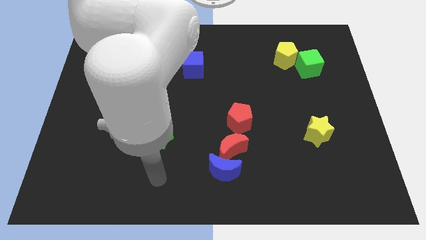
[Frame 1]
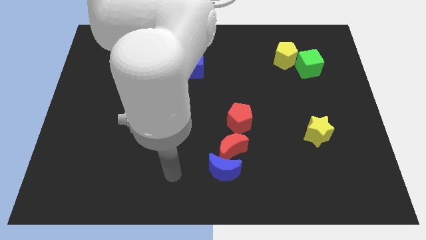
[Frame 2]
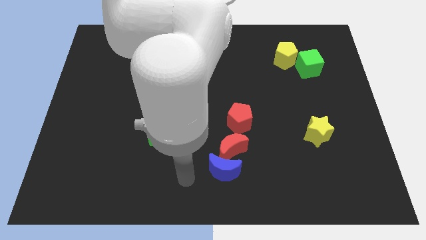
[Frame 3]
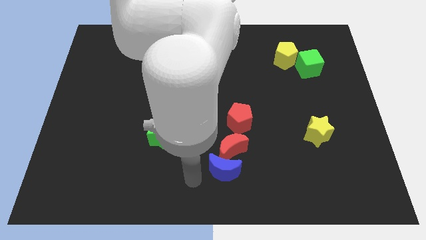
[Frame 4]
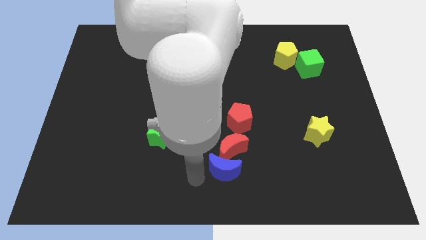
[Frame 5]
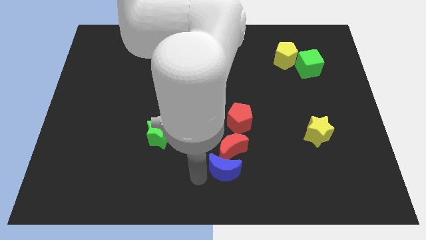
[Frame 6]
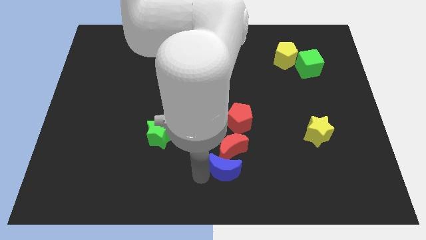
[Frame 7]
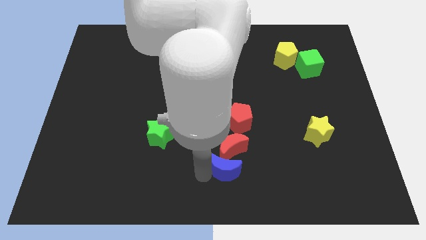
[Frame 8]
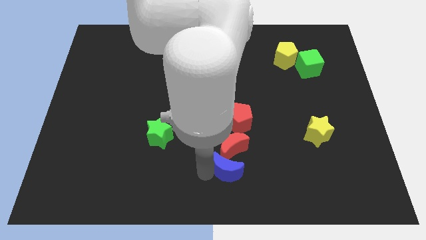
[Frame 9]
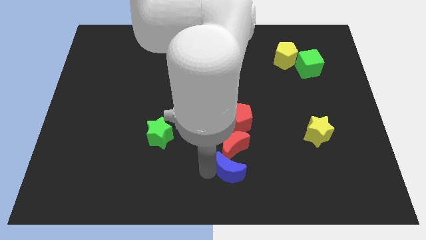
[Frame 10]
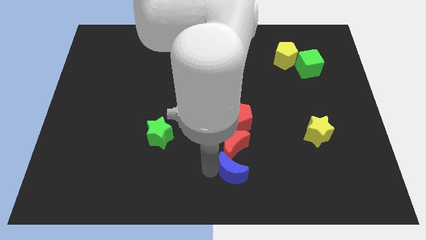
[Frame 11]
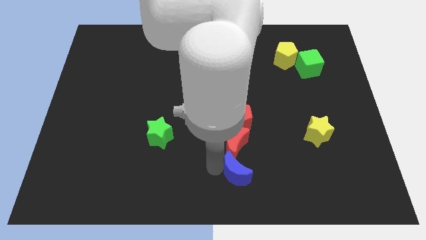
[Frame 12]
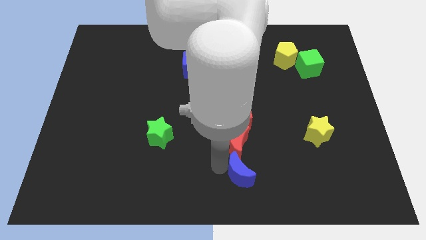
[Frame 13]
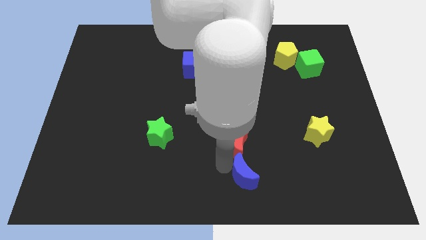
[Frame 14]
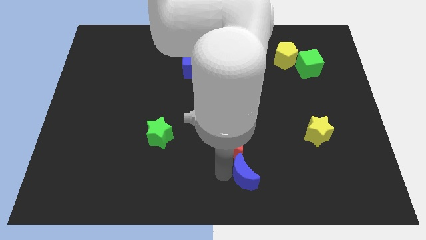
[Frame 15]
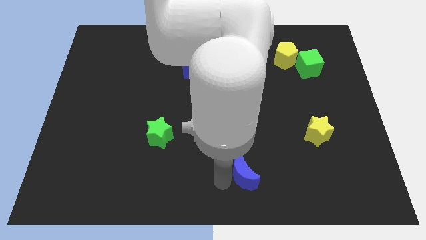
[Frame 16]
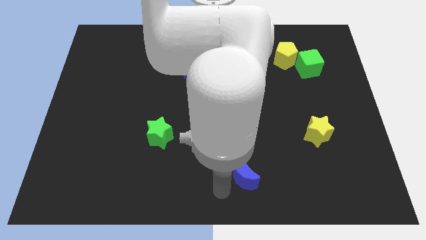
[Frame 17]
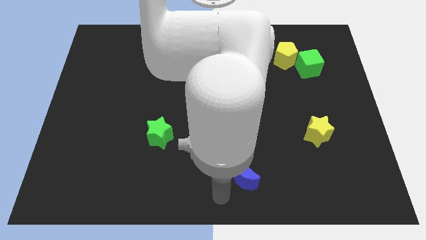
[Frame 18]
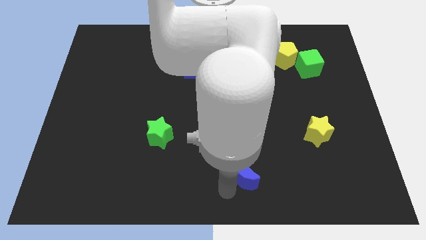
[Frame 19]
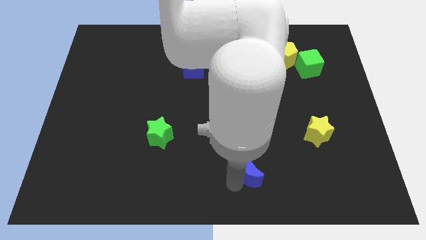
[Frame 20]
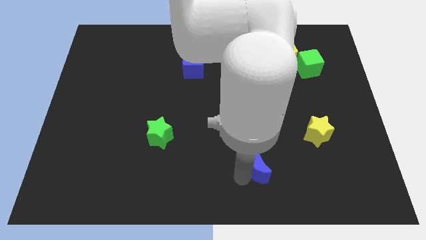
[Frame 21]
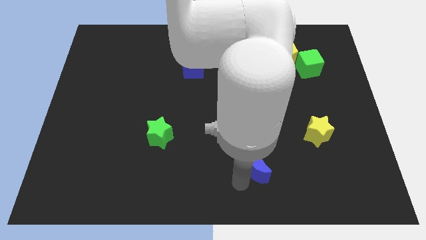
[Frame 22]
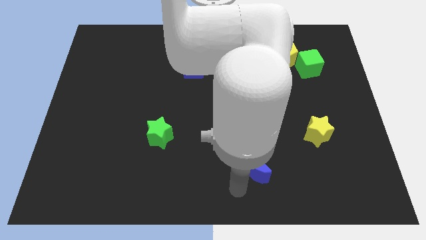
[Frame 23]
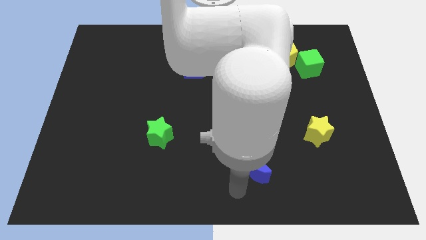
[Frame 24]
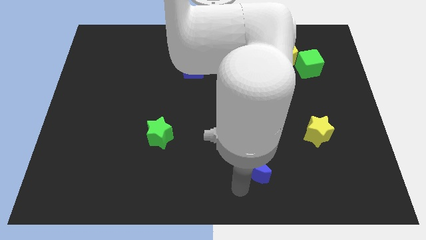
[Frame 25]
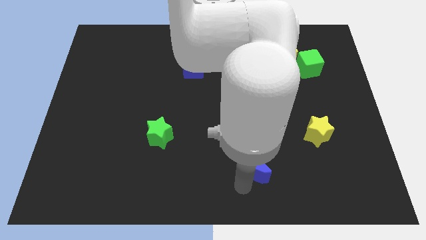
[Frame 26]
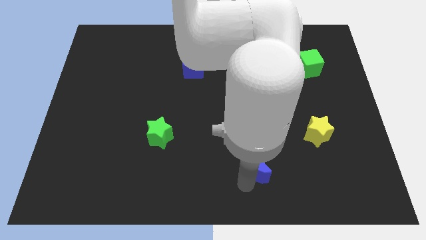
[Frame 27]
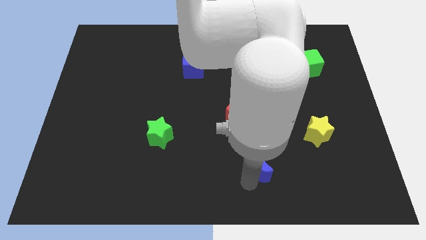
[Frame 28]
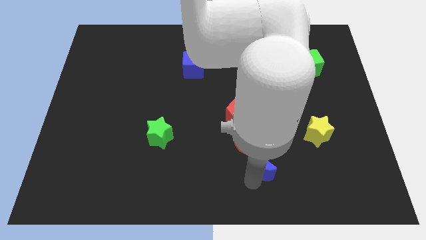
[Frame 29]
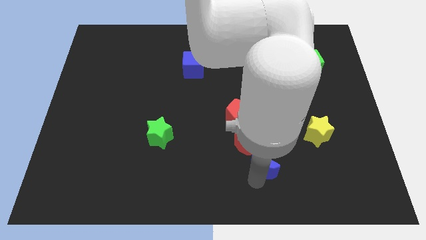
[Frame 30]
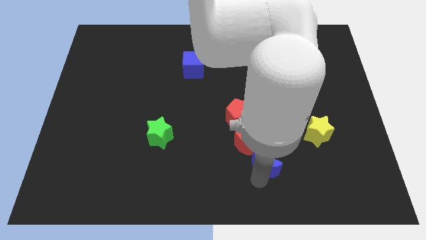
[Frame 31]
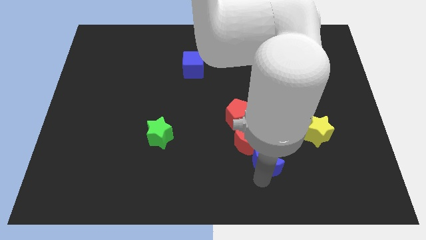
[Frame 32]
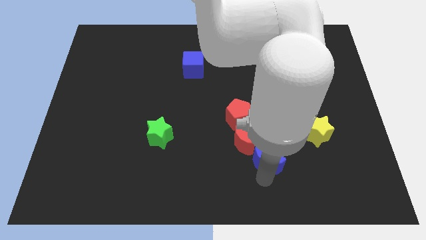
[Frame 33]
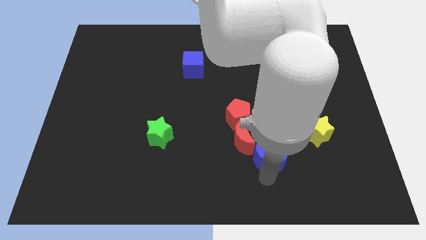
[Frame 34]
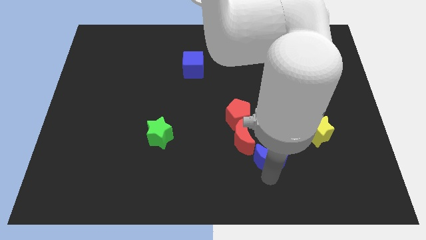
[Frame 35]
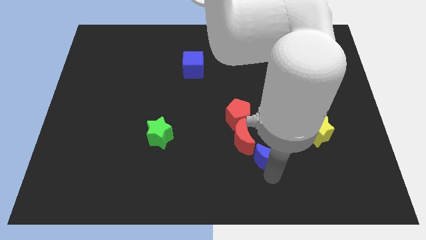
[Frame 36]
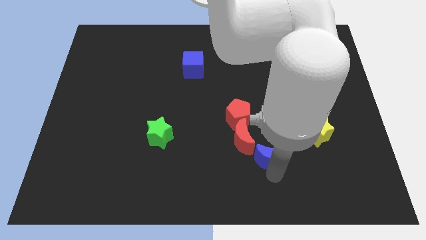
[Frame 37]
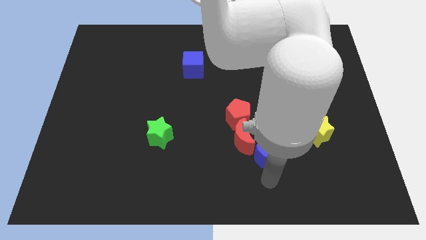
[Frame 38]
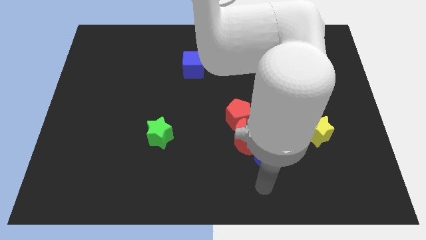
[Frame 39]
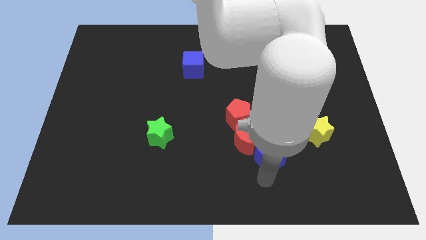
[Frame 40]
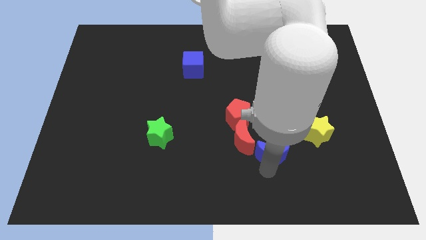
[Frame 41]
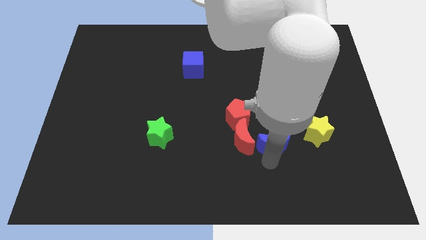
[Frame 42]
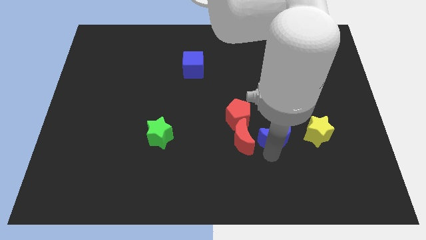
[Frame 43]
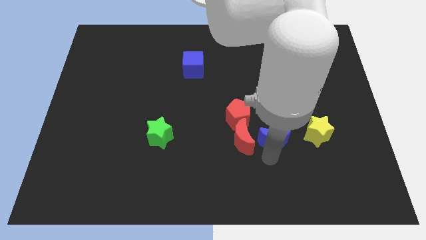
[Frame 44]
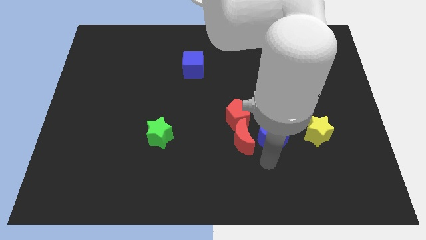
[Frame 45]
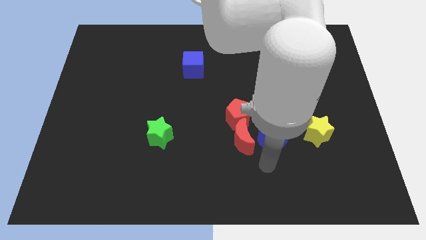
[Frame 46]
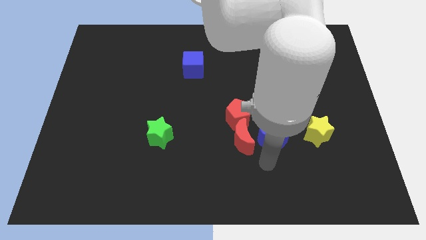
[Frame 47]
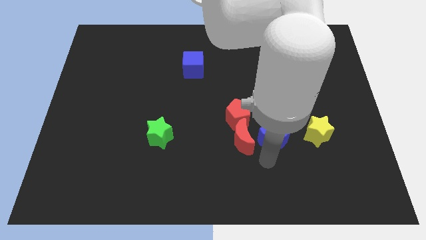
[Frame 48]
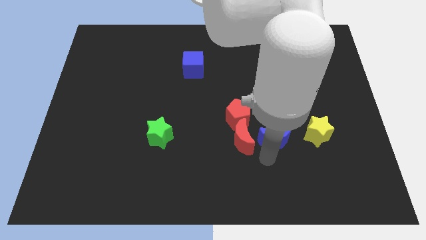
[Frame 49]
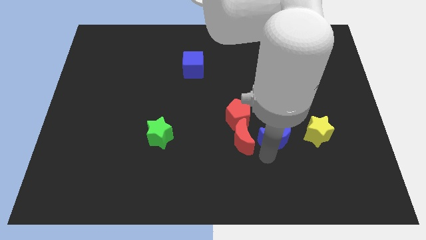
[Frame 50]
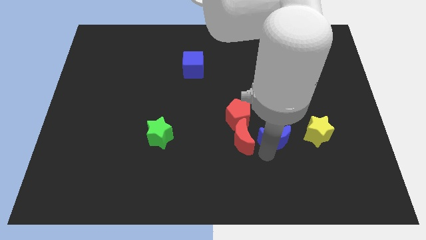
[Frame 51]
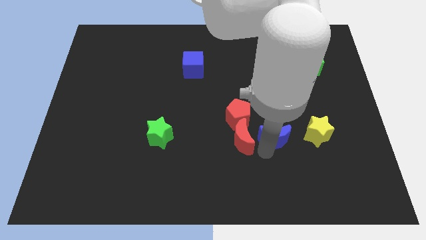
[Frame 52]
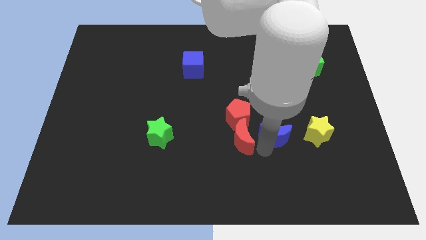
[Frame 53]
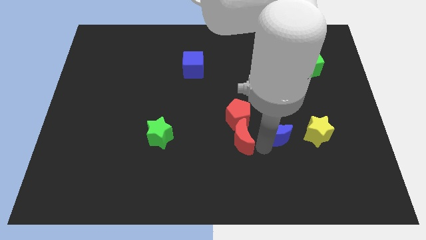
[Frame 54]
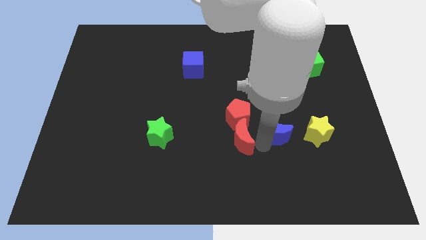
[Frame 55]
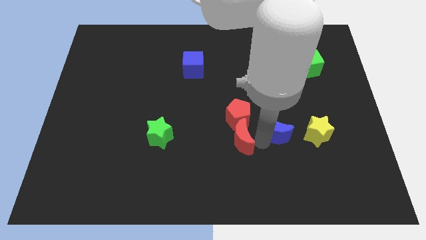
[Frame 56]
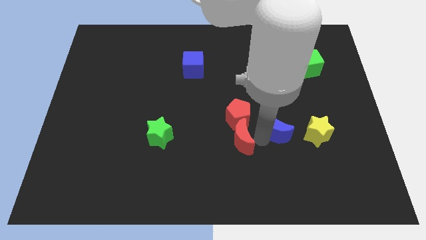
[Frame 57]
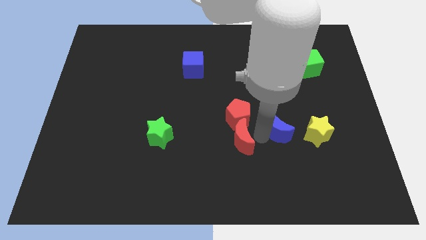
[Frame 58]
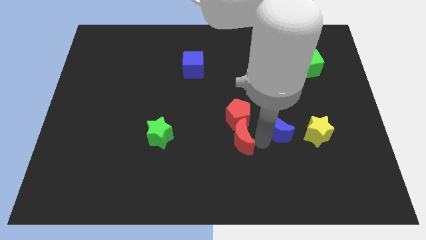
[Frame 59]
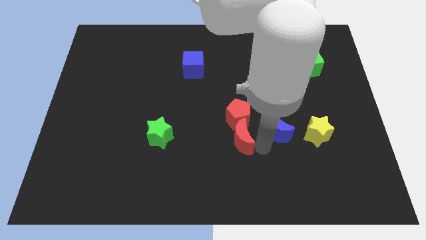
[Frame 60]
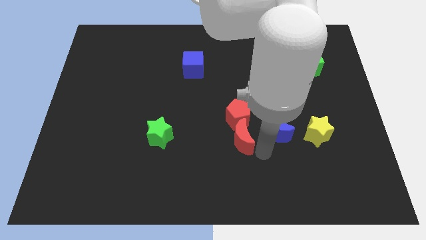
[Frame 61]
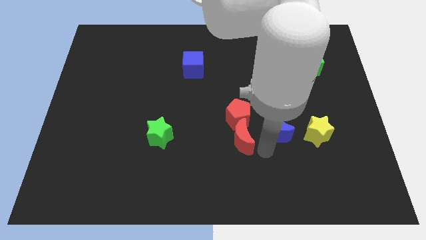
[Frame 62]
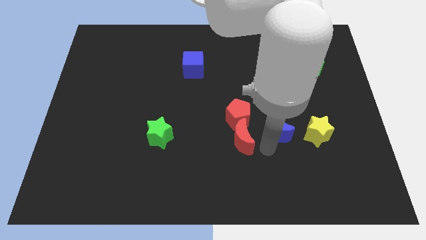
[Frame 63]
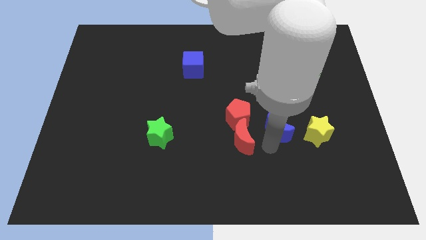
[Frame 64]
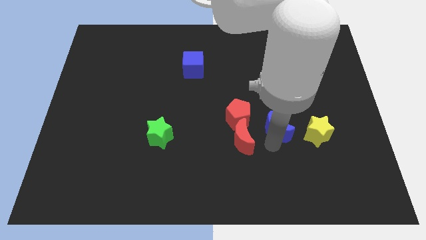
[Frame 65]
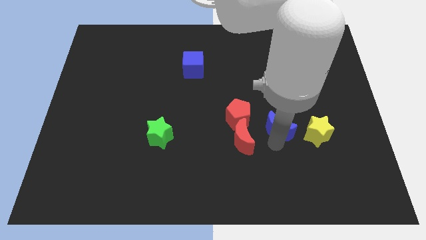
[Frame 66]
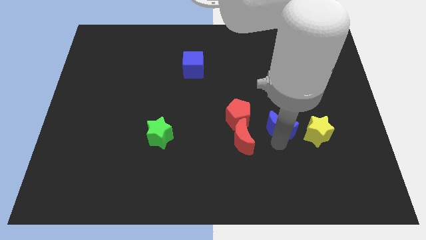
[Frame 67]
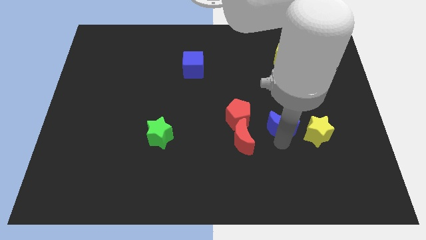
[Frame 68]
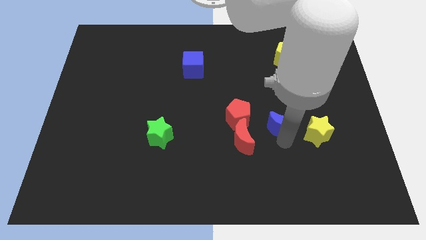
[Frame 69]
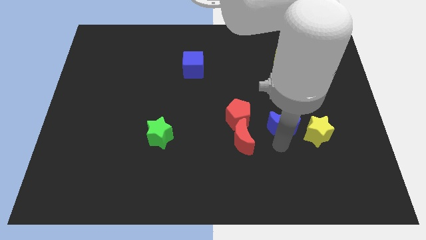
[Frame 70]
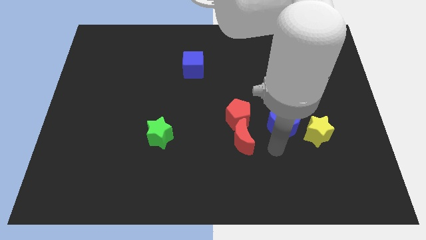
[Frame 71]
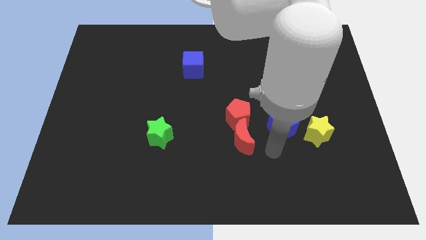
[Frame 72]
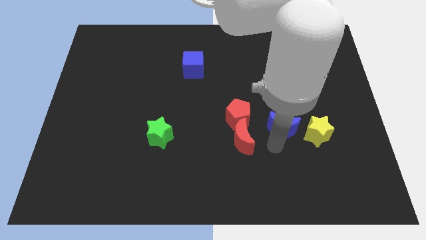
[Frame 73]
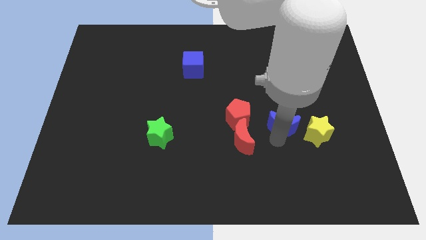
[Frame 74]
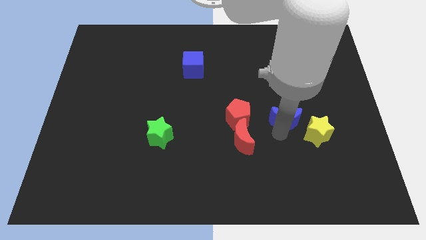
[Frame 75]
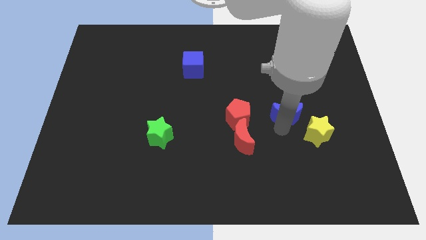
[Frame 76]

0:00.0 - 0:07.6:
move the blue moon diagonally upwards and right

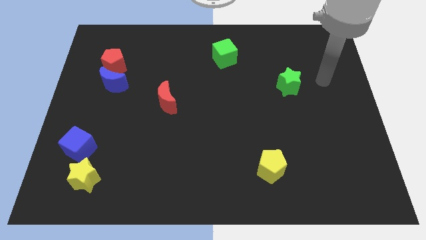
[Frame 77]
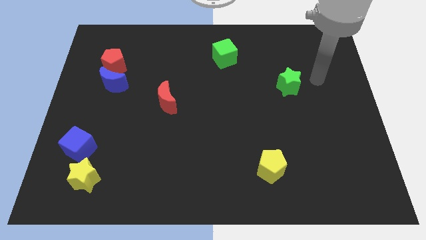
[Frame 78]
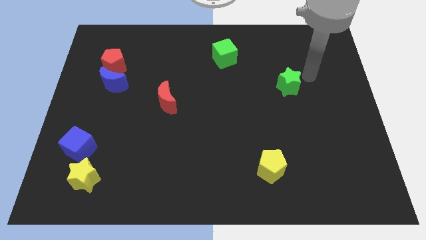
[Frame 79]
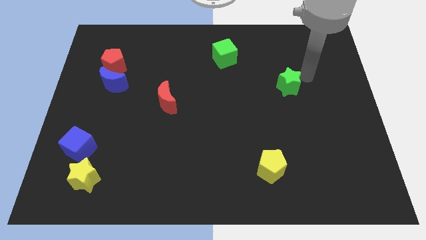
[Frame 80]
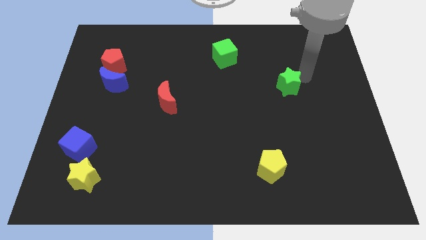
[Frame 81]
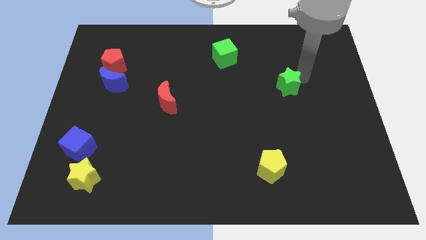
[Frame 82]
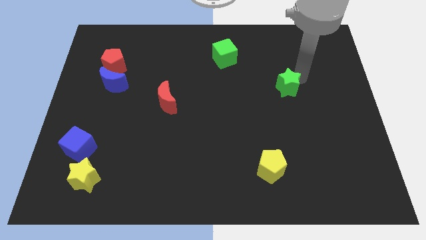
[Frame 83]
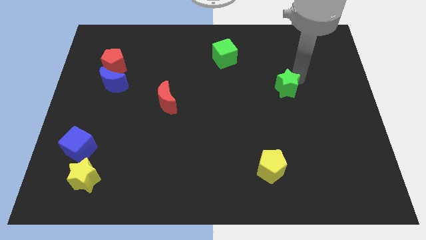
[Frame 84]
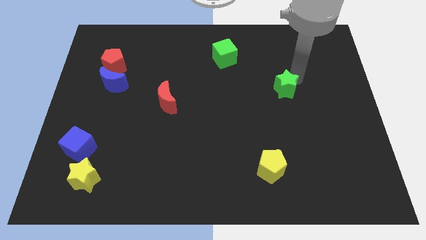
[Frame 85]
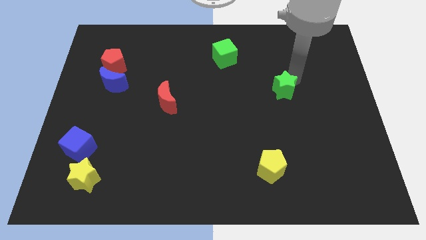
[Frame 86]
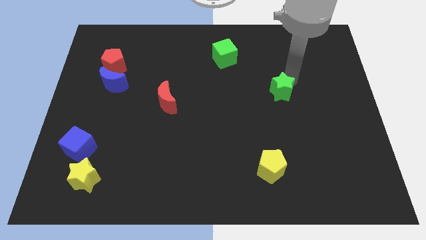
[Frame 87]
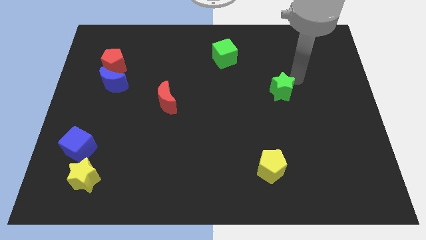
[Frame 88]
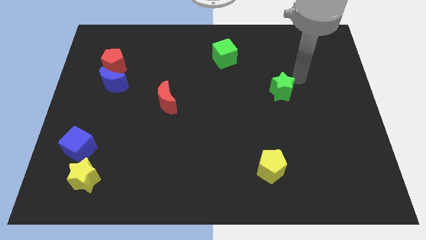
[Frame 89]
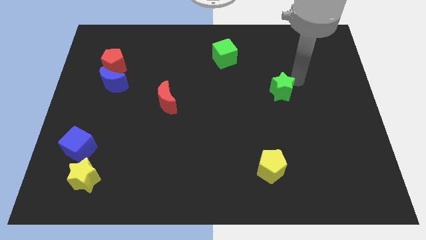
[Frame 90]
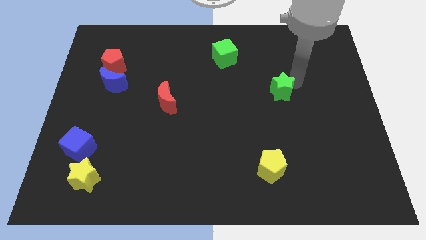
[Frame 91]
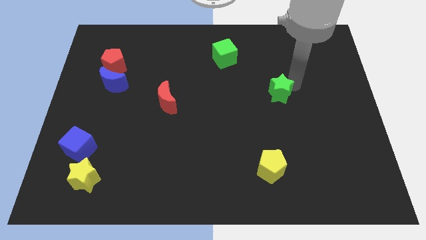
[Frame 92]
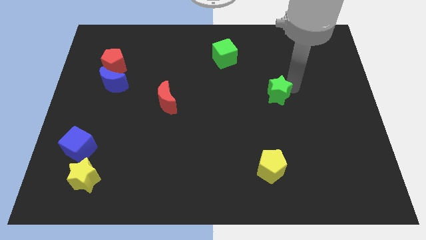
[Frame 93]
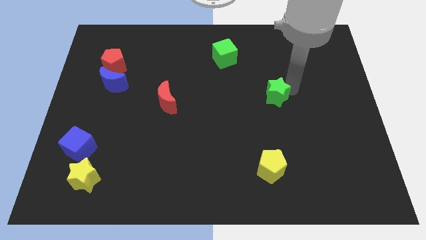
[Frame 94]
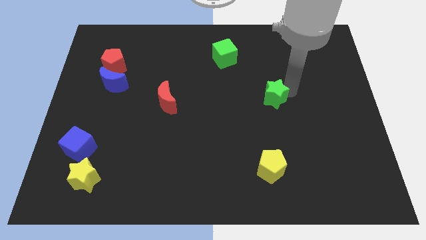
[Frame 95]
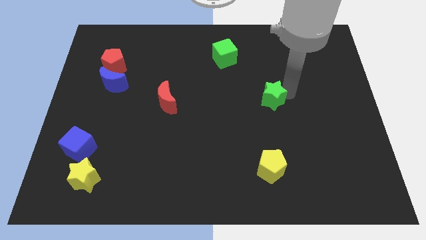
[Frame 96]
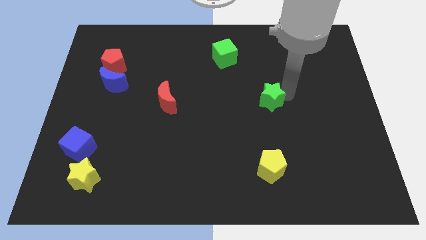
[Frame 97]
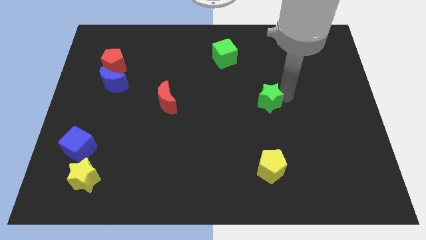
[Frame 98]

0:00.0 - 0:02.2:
slightly move the green star downwards and left diagonally
